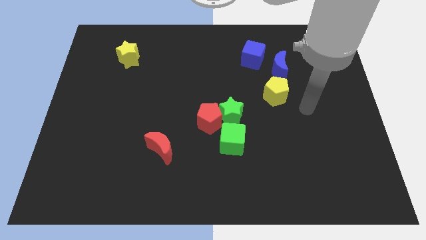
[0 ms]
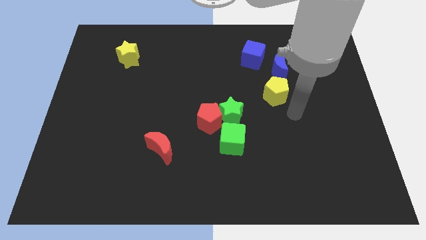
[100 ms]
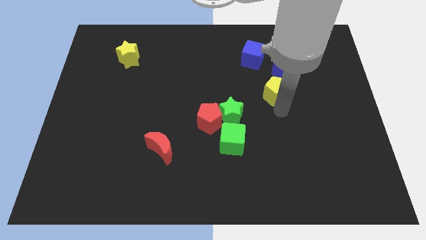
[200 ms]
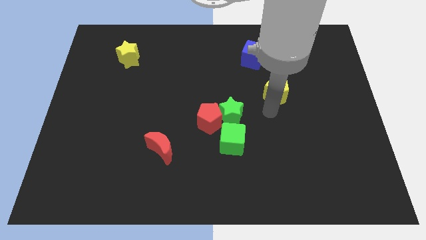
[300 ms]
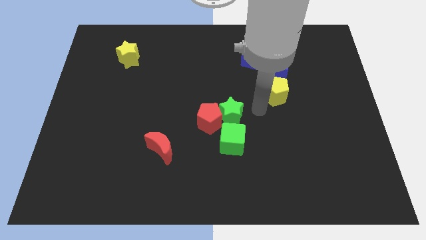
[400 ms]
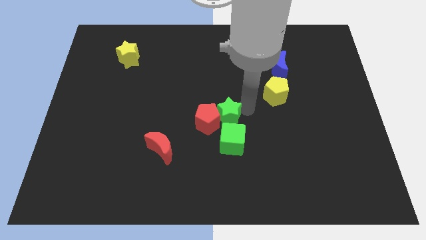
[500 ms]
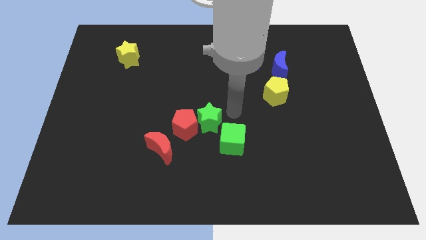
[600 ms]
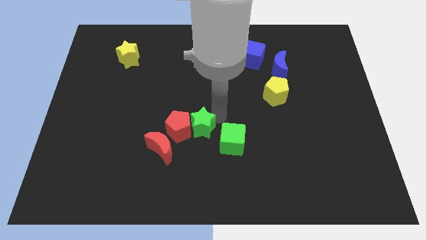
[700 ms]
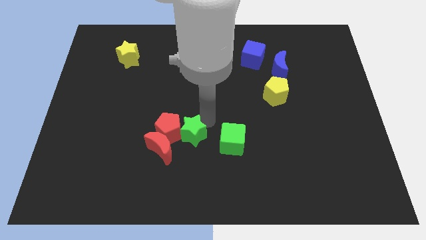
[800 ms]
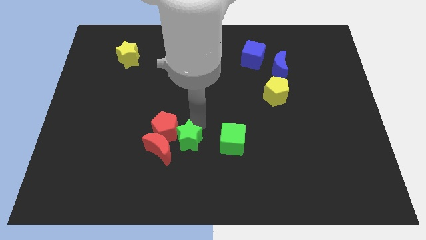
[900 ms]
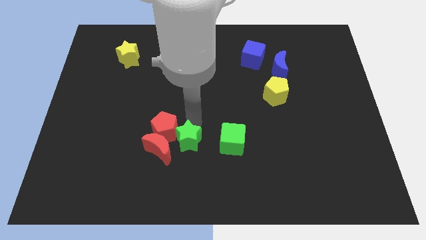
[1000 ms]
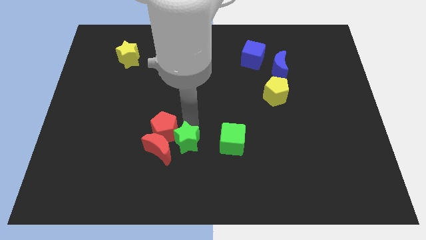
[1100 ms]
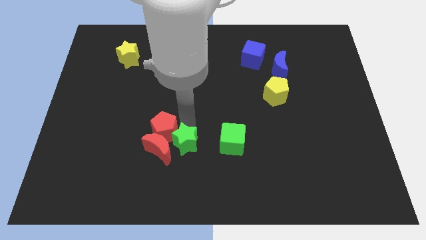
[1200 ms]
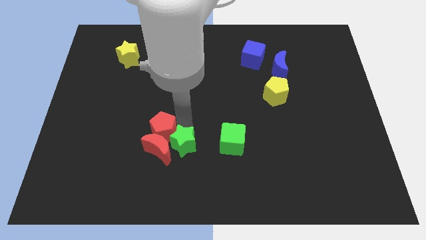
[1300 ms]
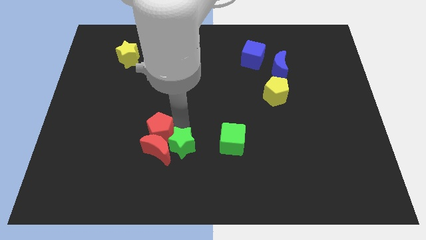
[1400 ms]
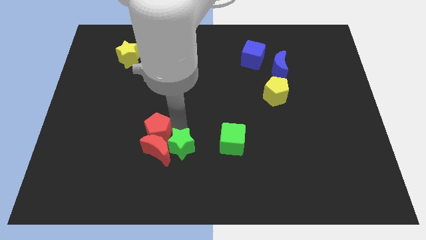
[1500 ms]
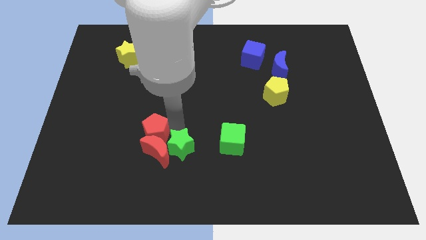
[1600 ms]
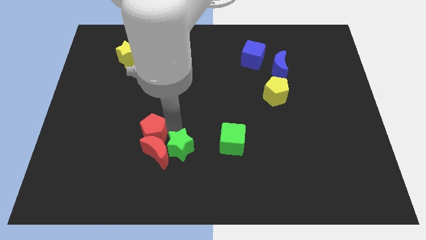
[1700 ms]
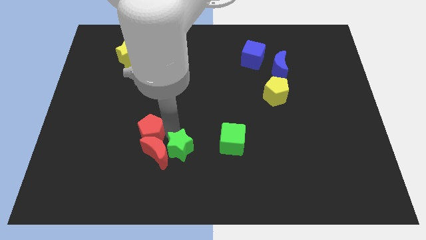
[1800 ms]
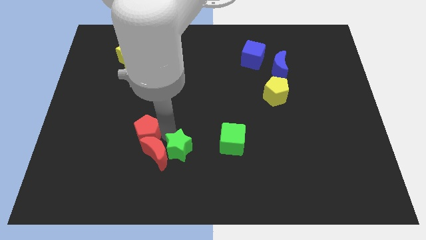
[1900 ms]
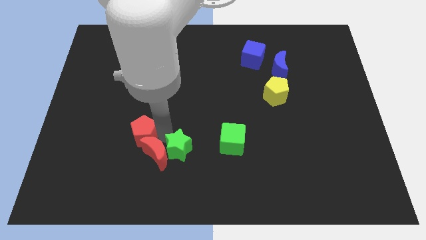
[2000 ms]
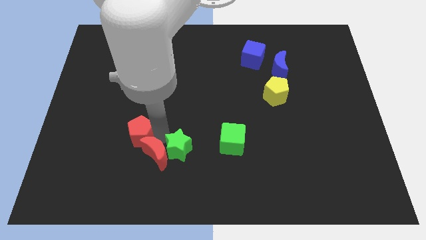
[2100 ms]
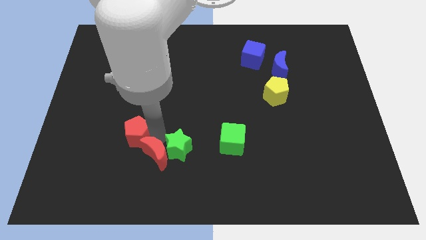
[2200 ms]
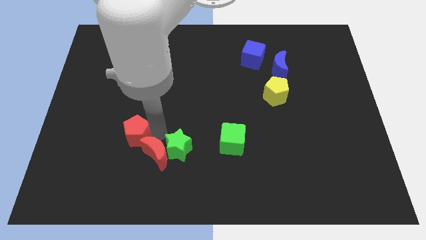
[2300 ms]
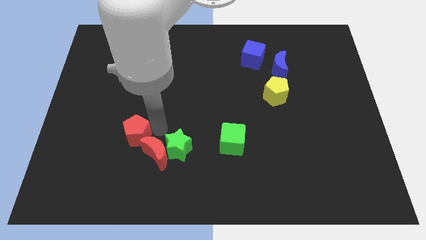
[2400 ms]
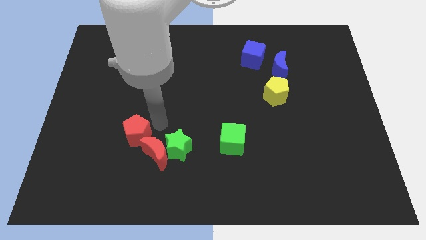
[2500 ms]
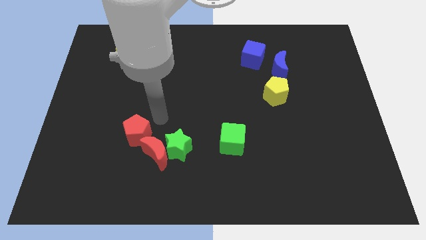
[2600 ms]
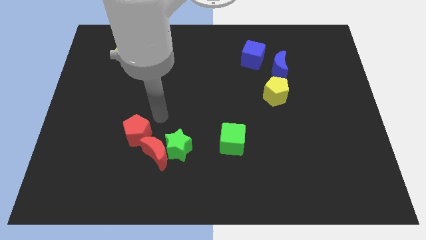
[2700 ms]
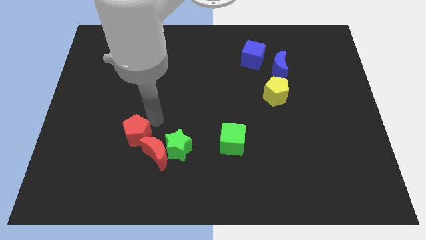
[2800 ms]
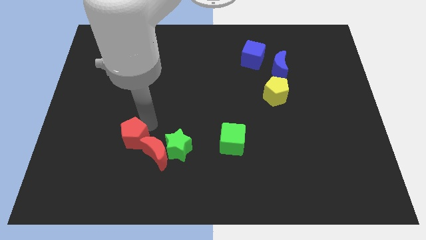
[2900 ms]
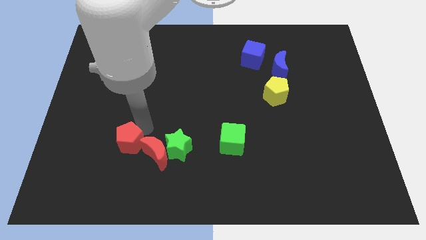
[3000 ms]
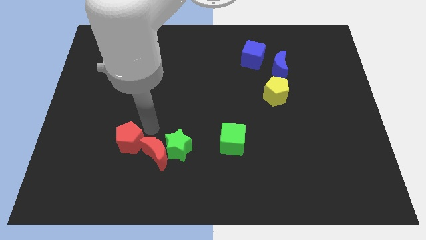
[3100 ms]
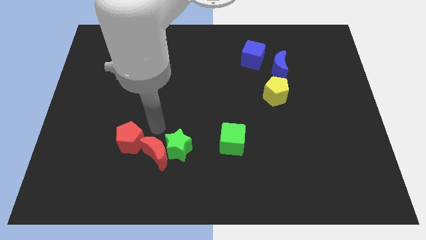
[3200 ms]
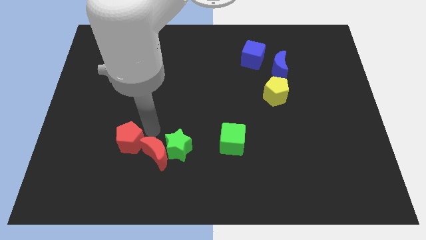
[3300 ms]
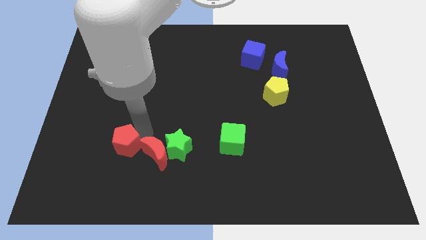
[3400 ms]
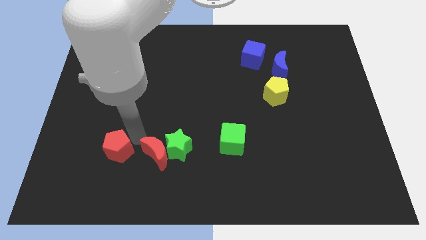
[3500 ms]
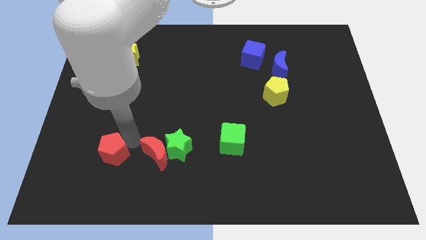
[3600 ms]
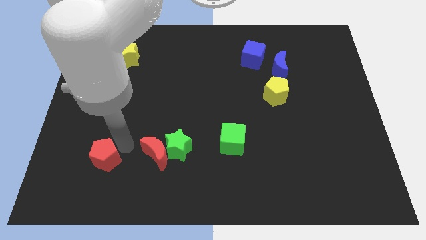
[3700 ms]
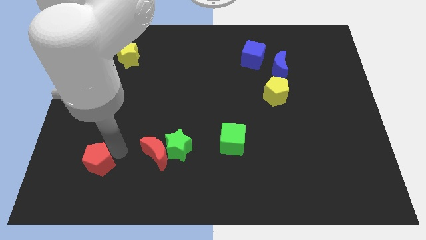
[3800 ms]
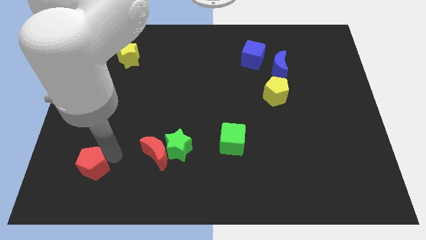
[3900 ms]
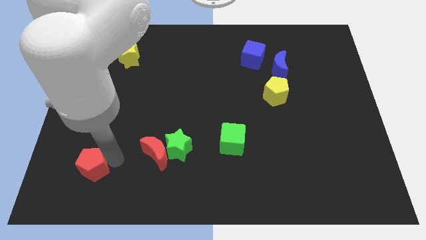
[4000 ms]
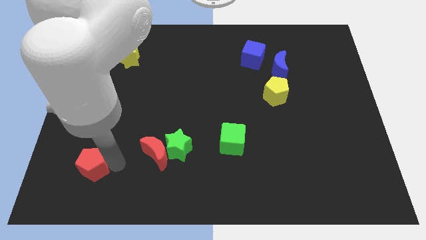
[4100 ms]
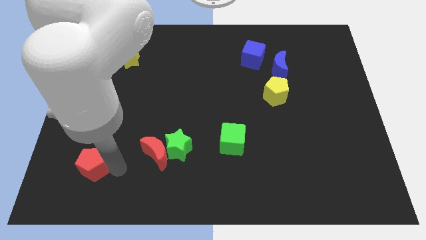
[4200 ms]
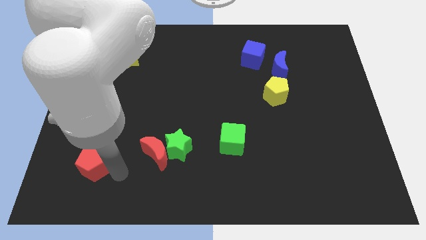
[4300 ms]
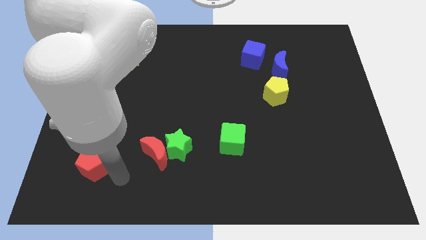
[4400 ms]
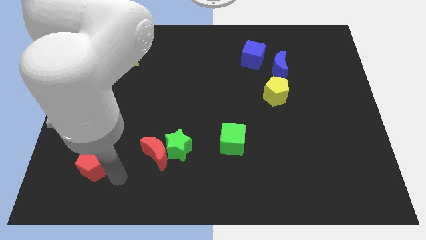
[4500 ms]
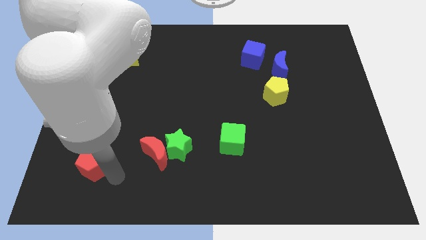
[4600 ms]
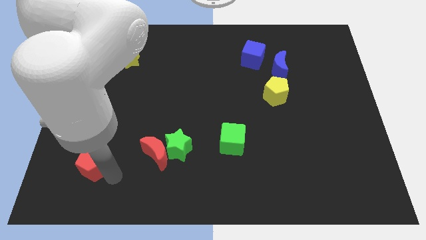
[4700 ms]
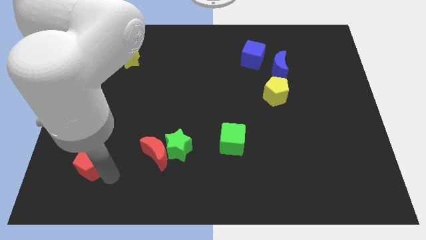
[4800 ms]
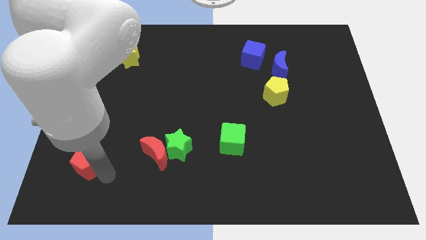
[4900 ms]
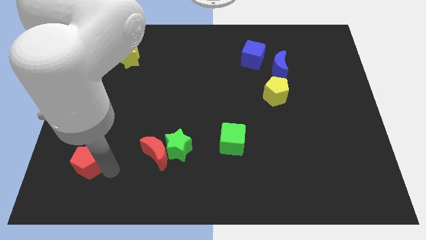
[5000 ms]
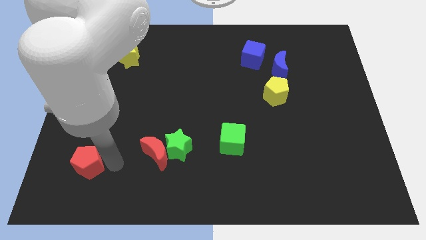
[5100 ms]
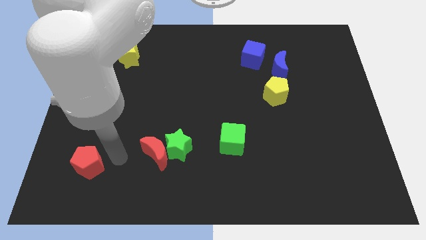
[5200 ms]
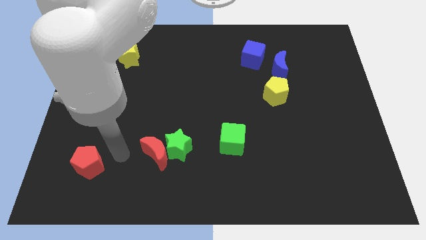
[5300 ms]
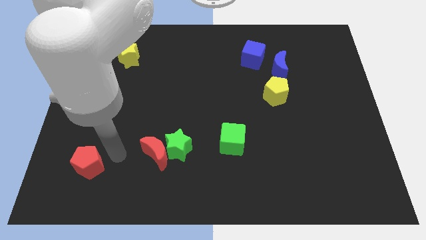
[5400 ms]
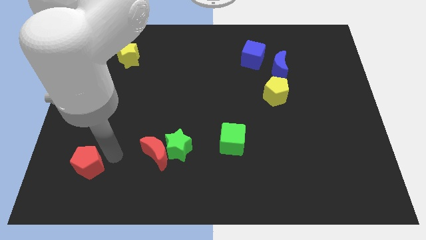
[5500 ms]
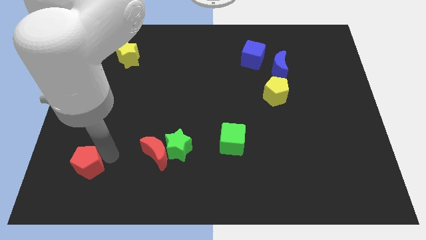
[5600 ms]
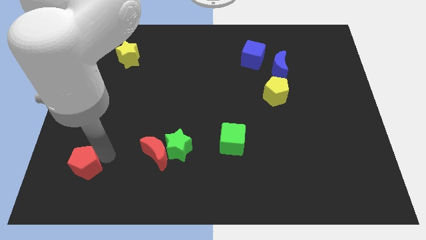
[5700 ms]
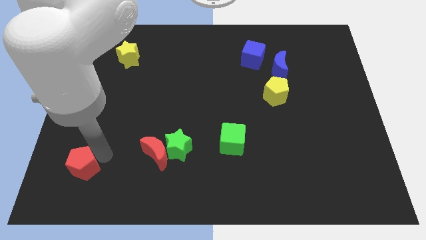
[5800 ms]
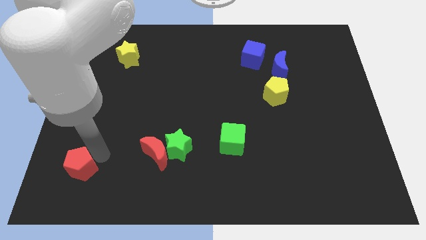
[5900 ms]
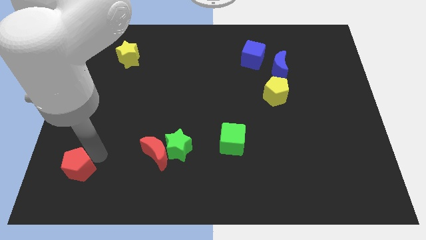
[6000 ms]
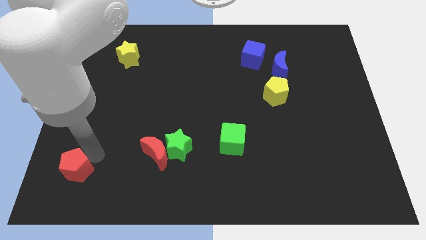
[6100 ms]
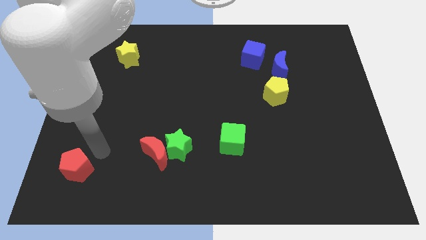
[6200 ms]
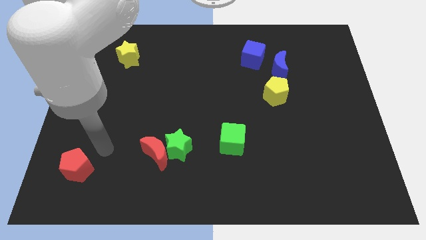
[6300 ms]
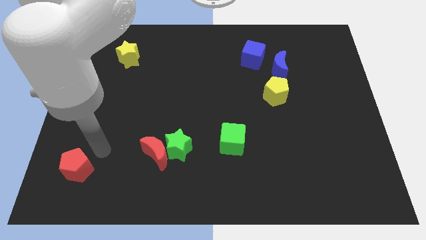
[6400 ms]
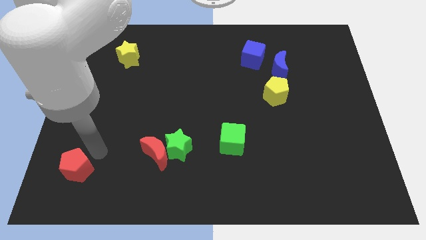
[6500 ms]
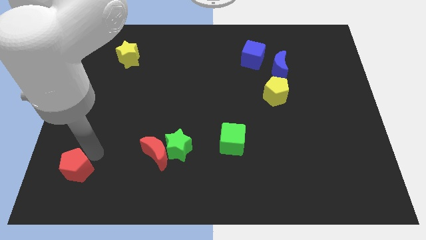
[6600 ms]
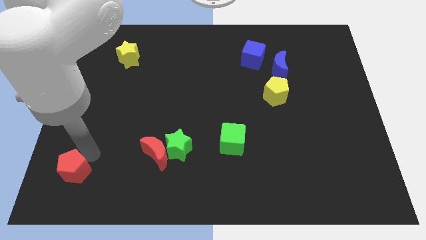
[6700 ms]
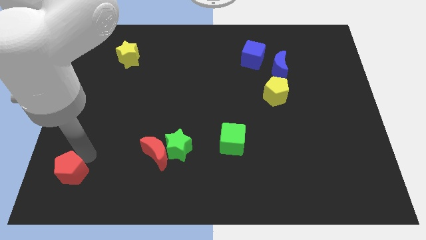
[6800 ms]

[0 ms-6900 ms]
push the red pentagon to the bottom left of the board

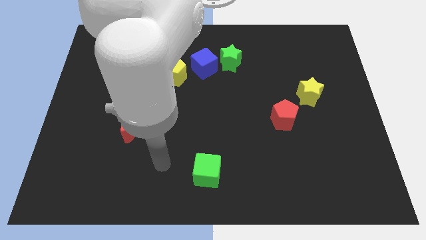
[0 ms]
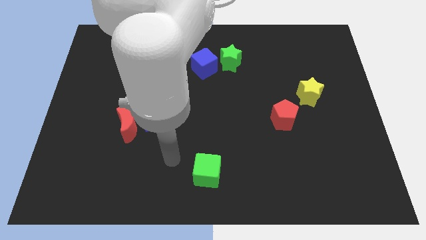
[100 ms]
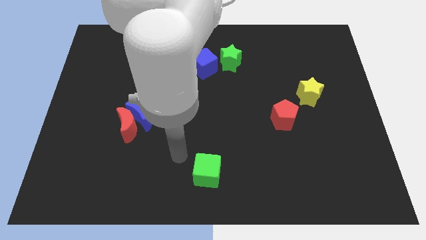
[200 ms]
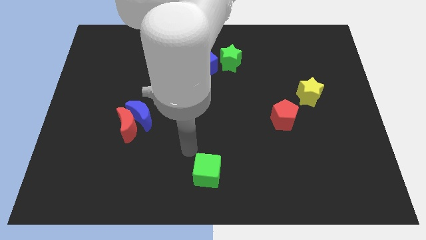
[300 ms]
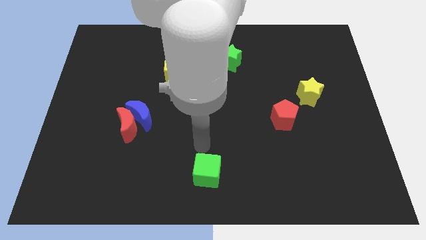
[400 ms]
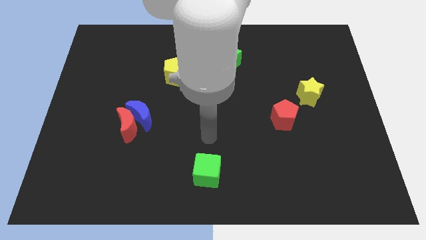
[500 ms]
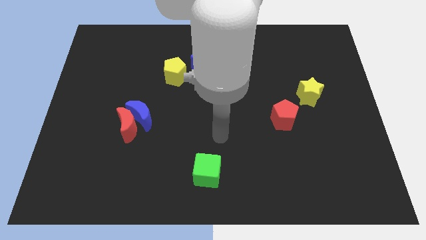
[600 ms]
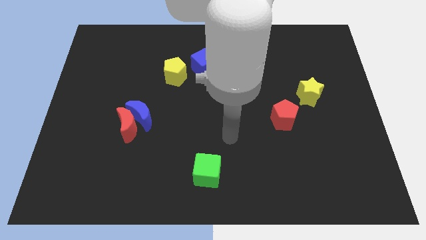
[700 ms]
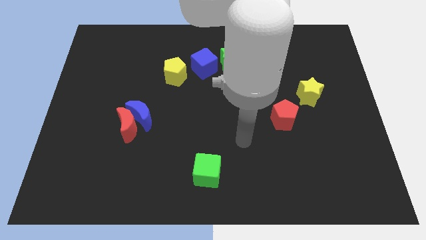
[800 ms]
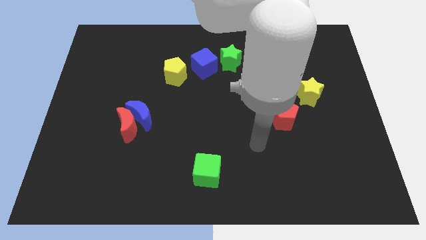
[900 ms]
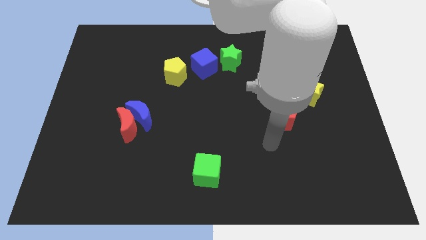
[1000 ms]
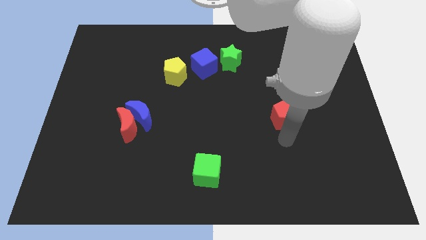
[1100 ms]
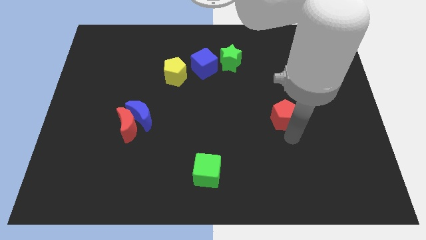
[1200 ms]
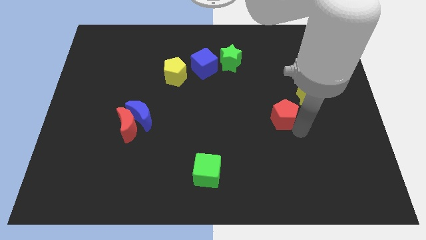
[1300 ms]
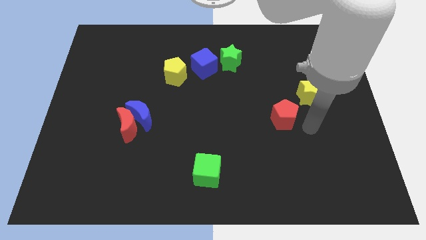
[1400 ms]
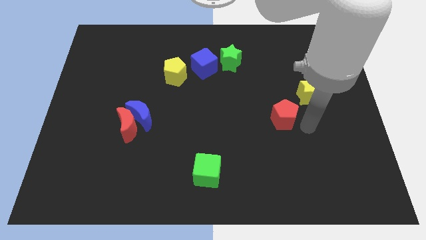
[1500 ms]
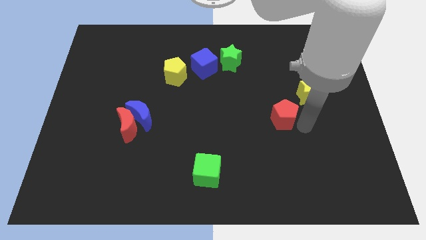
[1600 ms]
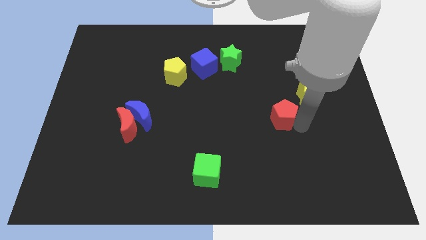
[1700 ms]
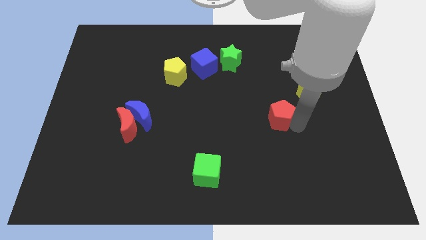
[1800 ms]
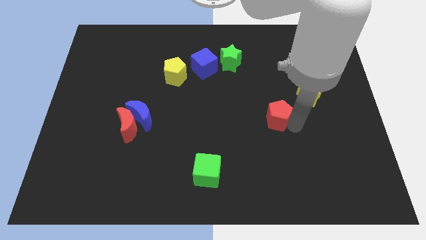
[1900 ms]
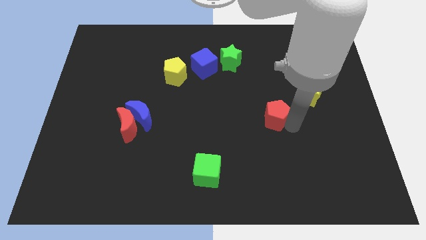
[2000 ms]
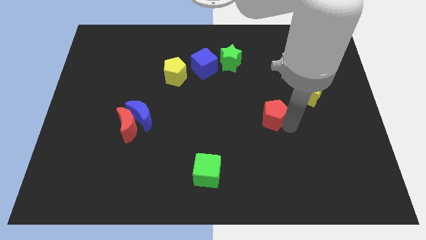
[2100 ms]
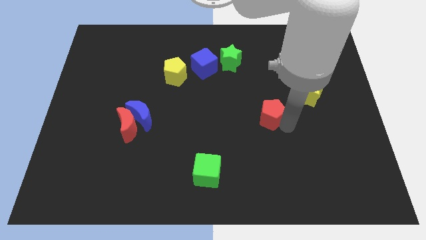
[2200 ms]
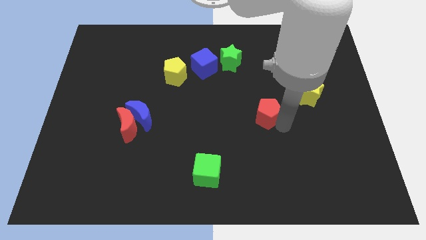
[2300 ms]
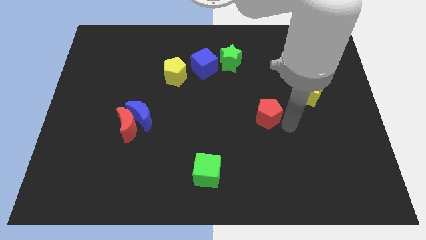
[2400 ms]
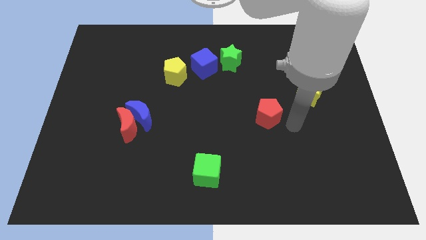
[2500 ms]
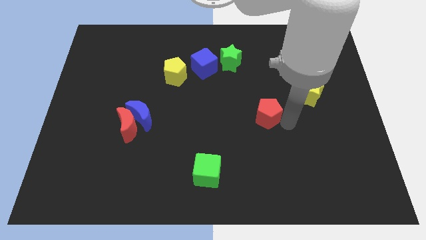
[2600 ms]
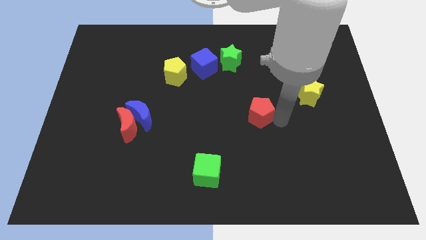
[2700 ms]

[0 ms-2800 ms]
push the red pentagon to the middle
